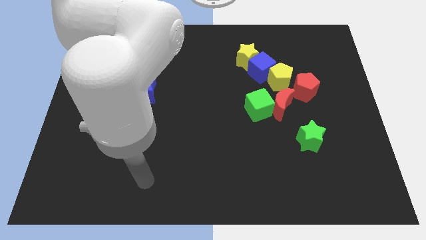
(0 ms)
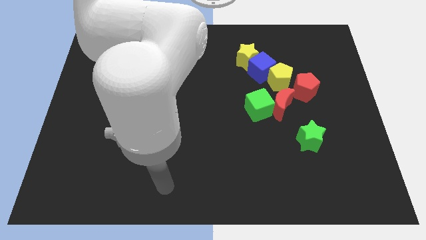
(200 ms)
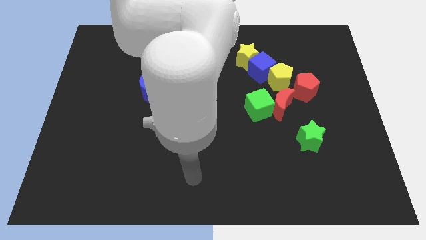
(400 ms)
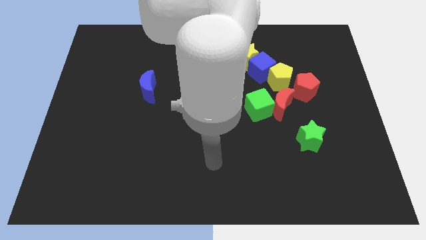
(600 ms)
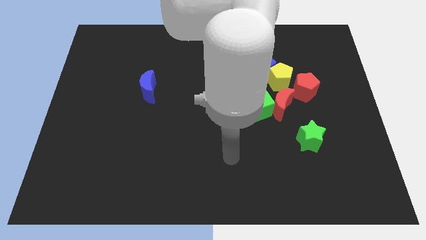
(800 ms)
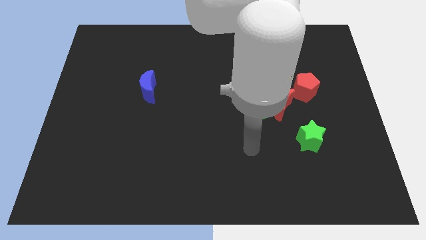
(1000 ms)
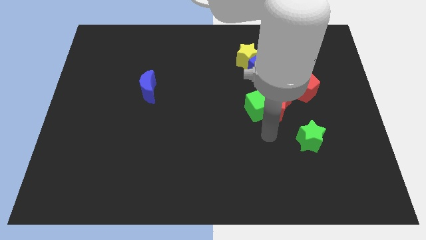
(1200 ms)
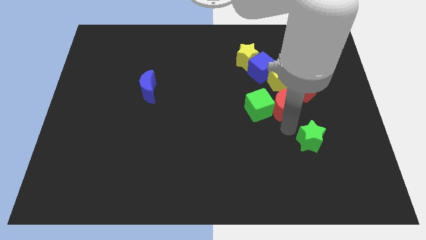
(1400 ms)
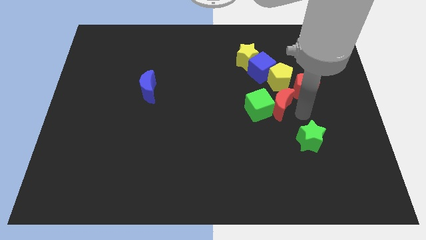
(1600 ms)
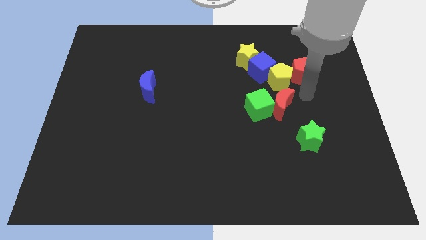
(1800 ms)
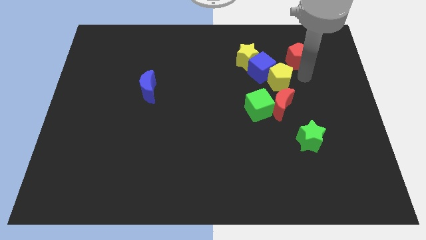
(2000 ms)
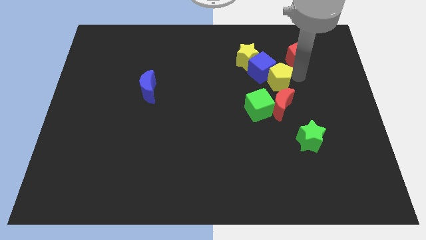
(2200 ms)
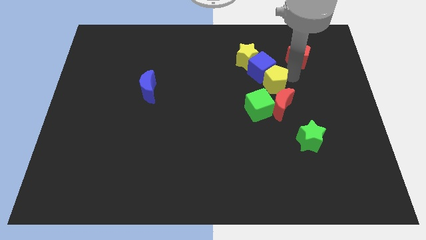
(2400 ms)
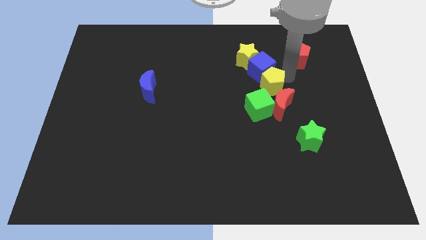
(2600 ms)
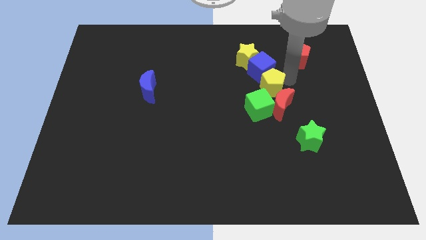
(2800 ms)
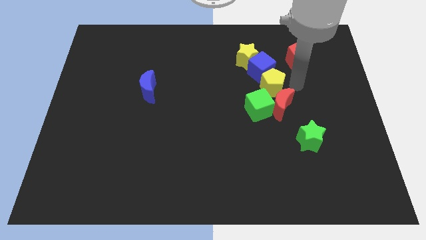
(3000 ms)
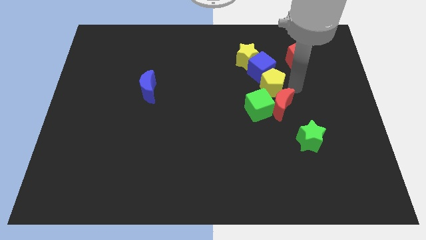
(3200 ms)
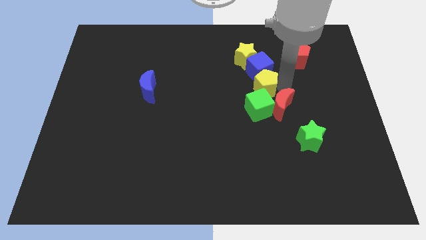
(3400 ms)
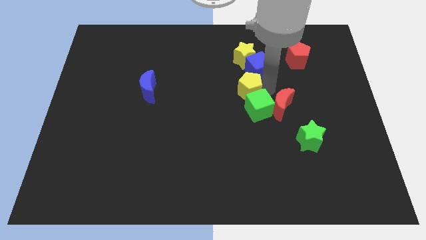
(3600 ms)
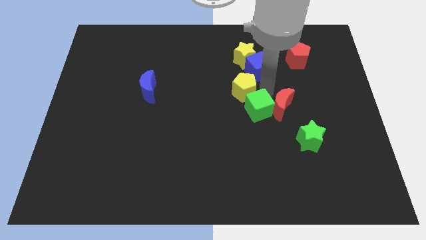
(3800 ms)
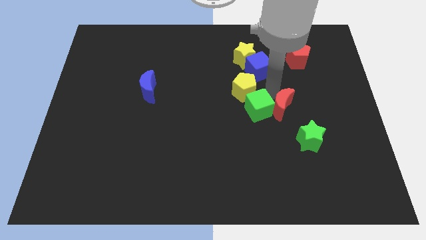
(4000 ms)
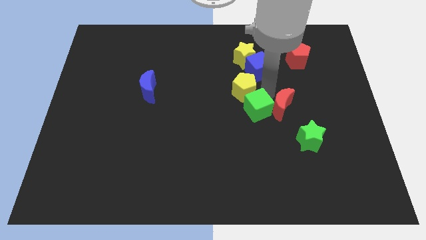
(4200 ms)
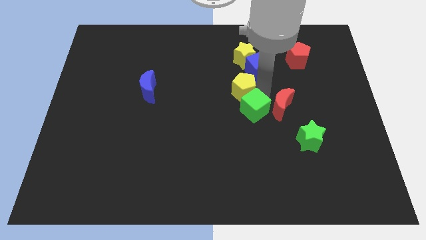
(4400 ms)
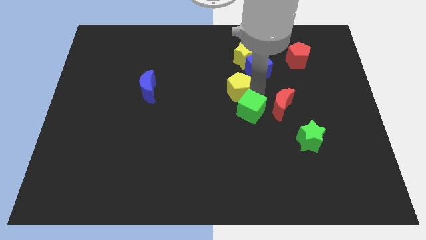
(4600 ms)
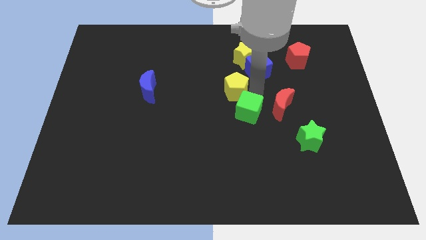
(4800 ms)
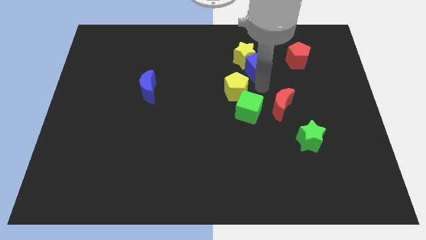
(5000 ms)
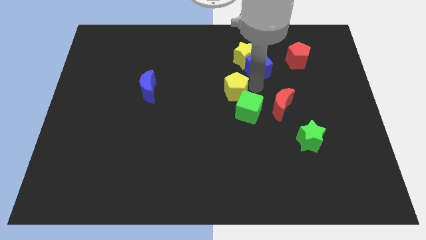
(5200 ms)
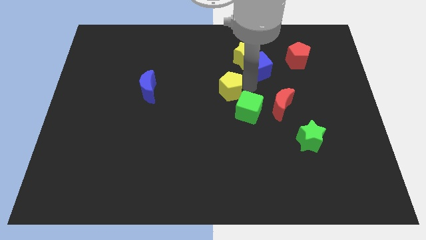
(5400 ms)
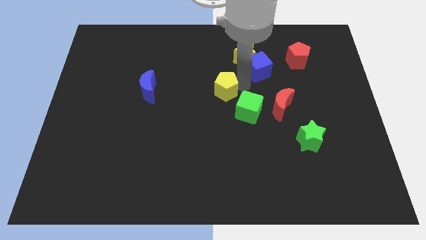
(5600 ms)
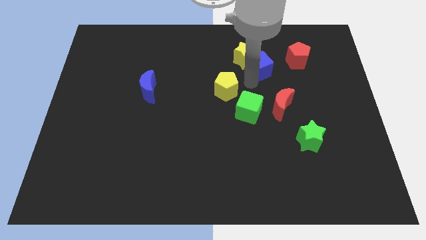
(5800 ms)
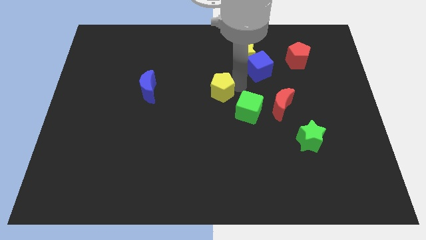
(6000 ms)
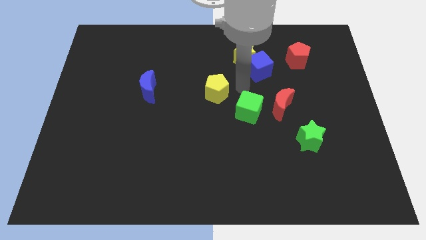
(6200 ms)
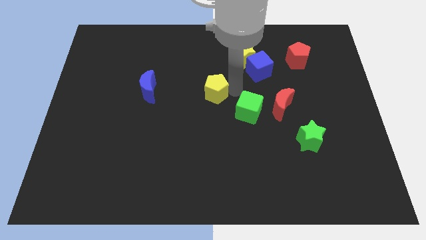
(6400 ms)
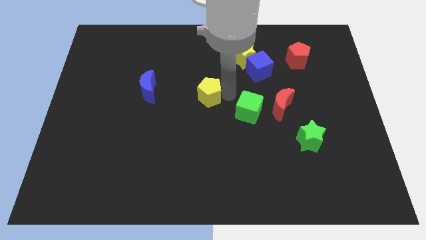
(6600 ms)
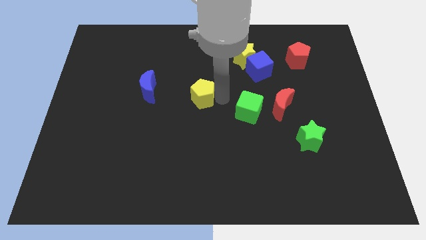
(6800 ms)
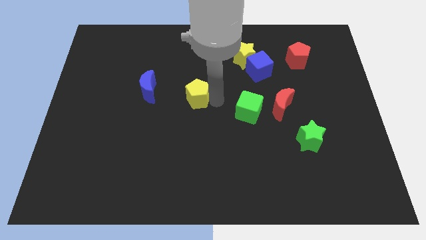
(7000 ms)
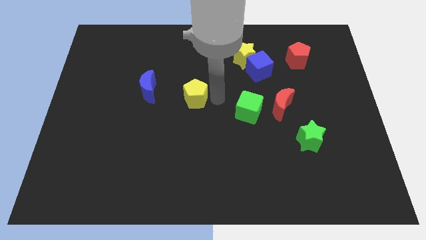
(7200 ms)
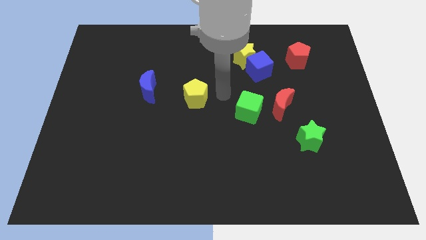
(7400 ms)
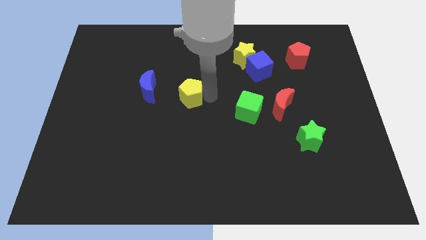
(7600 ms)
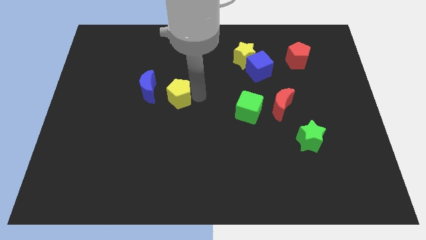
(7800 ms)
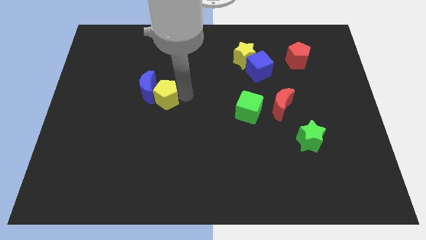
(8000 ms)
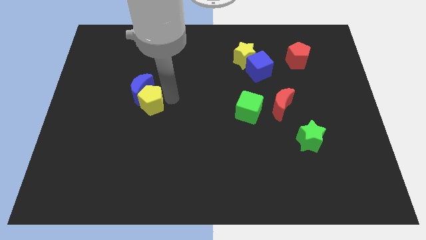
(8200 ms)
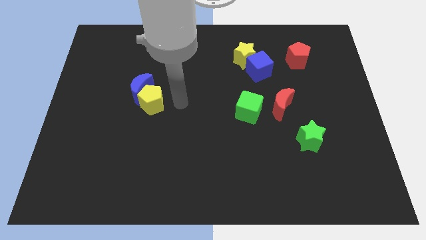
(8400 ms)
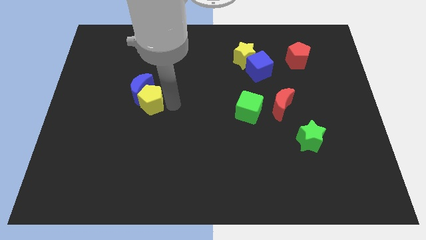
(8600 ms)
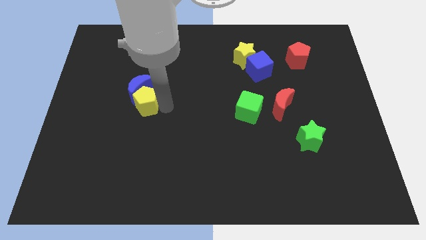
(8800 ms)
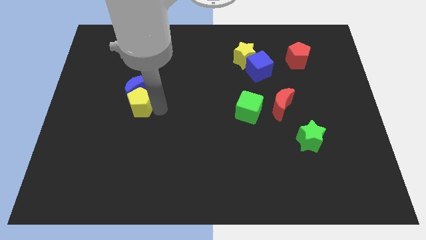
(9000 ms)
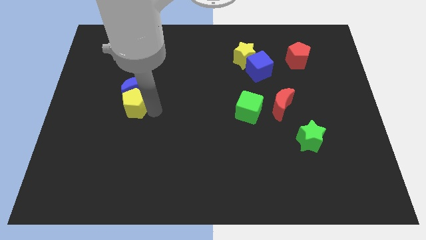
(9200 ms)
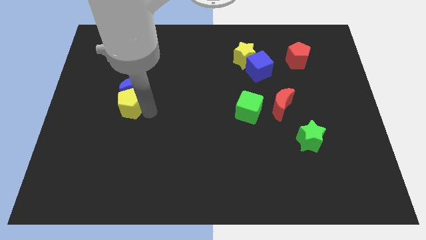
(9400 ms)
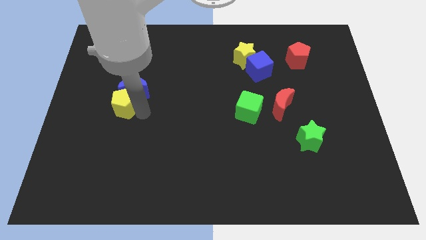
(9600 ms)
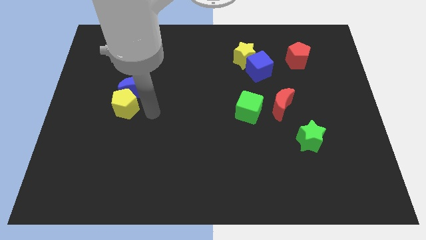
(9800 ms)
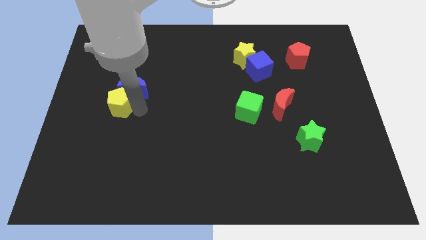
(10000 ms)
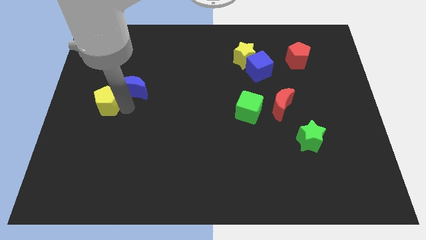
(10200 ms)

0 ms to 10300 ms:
push the yellow pentagon to the left side of the board

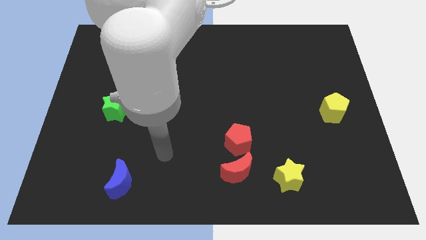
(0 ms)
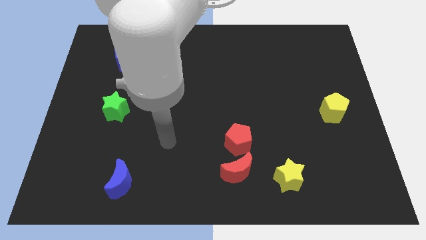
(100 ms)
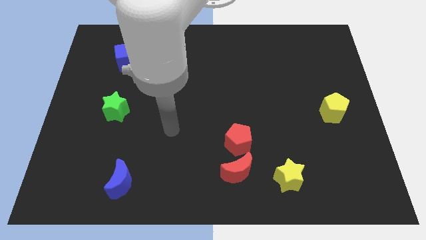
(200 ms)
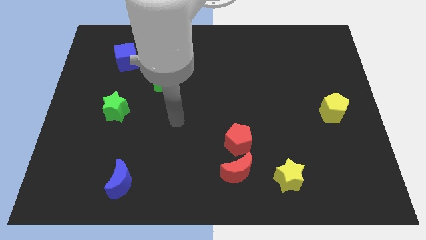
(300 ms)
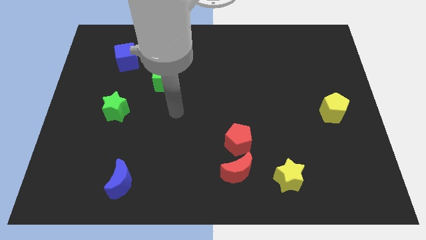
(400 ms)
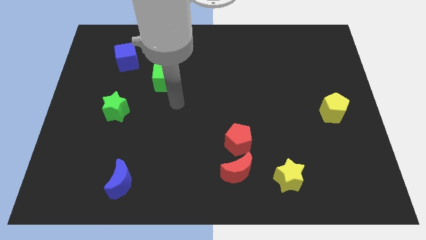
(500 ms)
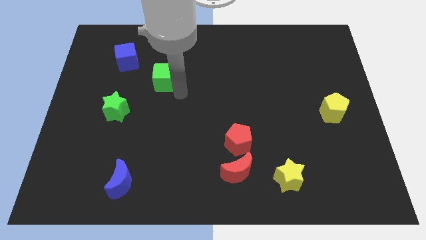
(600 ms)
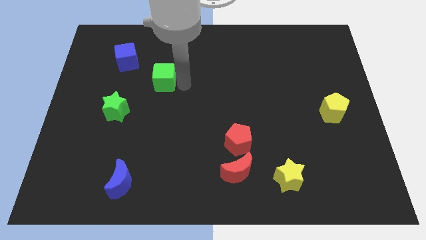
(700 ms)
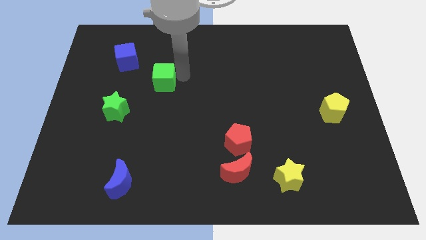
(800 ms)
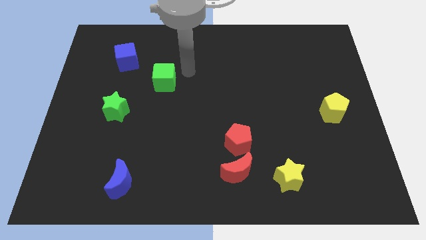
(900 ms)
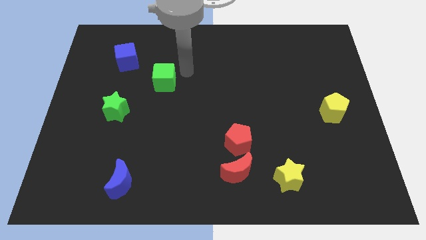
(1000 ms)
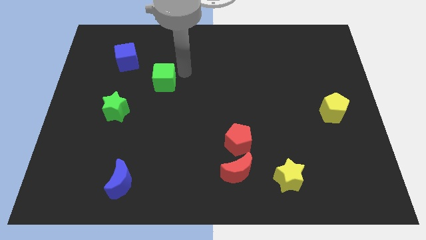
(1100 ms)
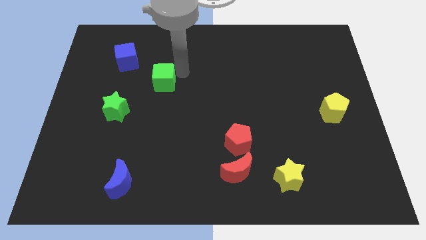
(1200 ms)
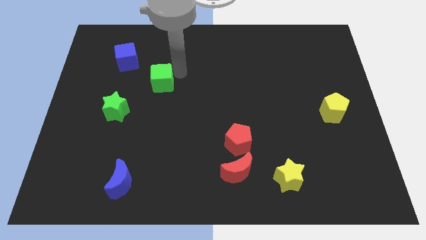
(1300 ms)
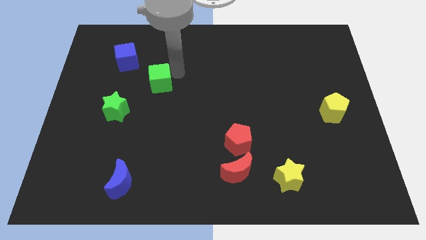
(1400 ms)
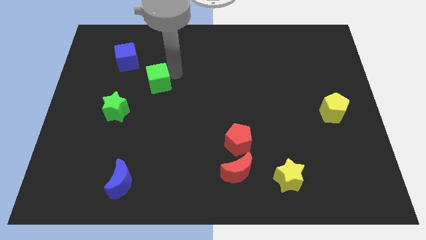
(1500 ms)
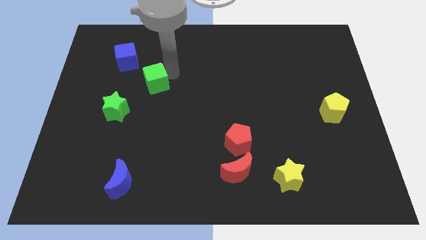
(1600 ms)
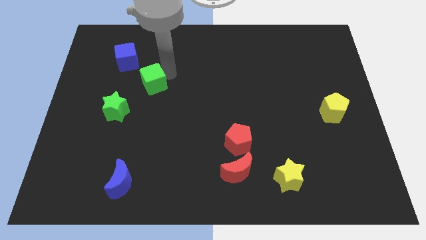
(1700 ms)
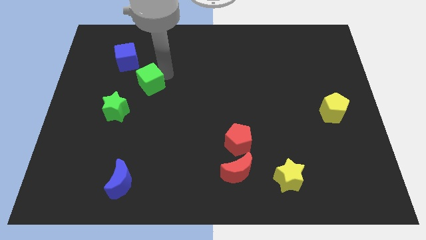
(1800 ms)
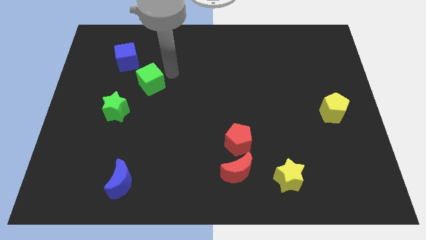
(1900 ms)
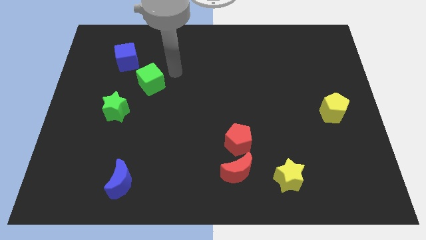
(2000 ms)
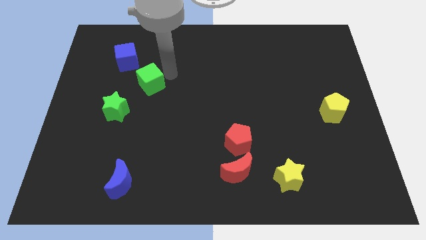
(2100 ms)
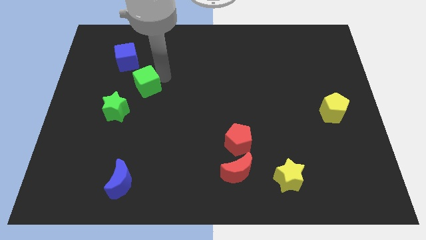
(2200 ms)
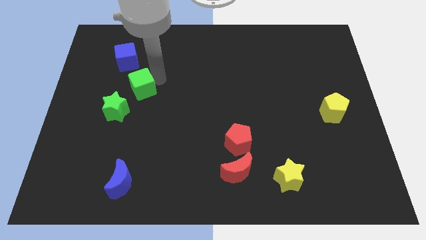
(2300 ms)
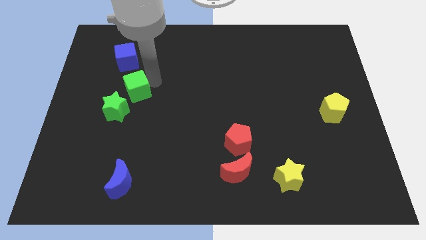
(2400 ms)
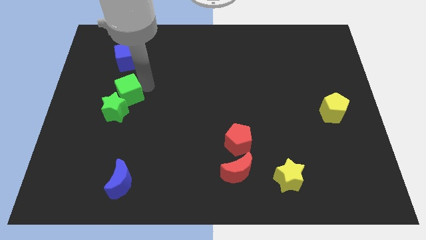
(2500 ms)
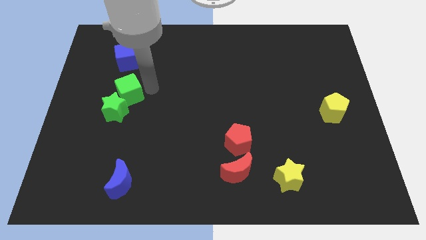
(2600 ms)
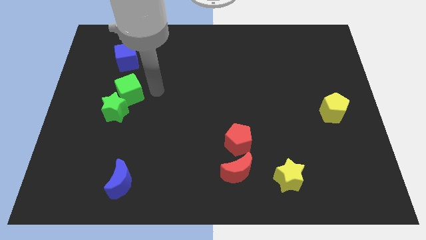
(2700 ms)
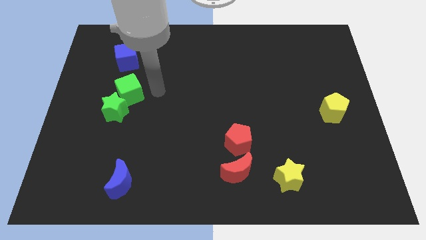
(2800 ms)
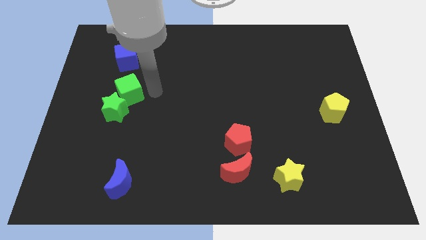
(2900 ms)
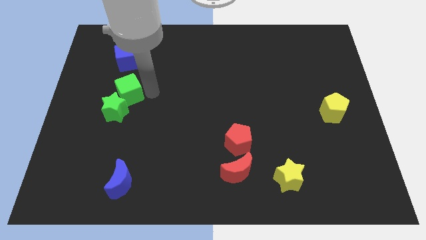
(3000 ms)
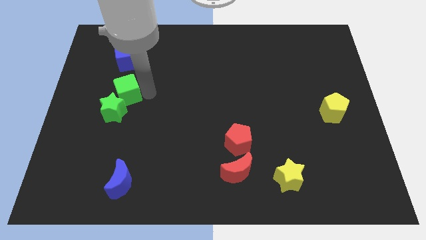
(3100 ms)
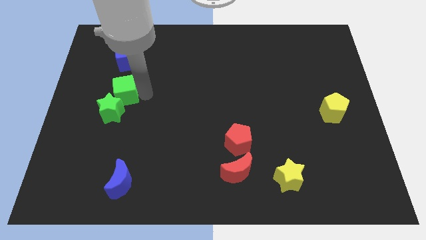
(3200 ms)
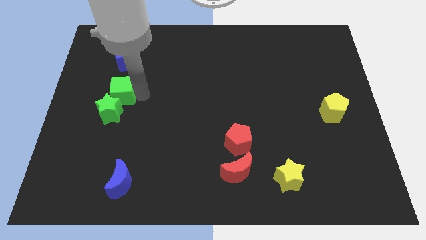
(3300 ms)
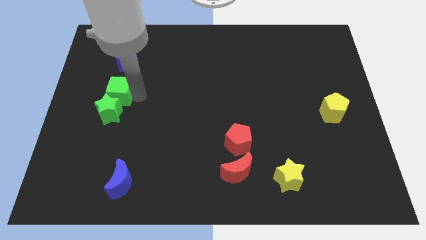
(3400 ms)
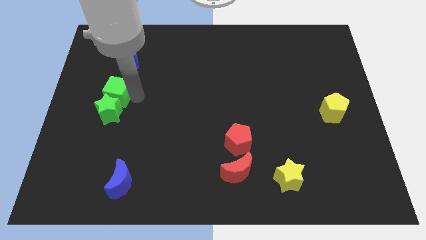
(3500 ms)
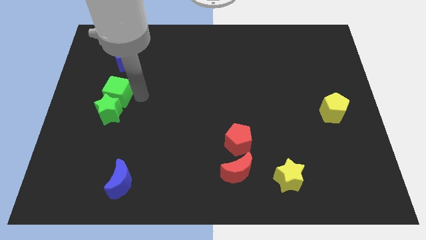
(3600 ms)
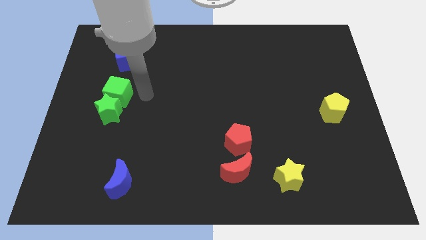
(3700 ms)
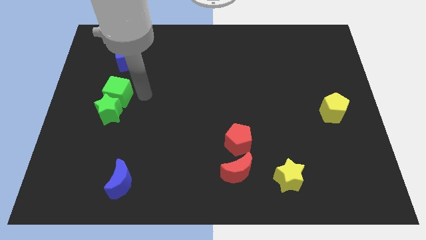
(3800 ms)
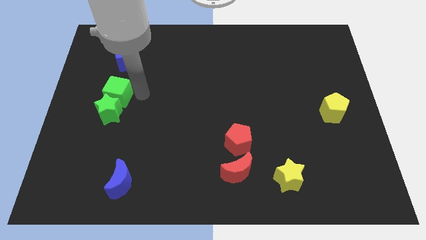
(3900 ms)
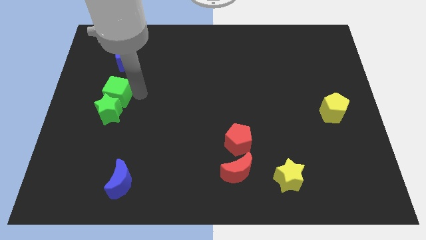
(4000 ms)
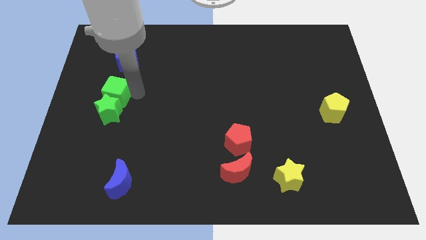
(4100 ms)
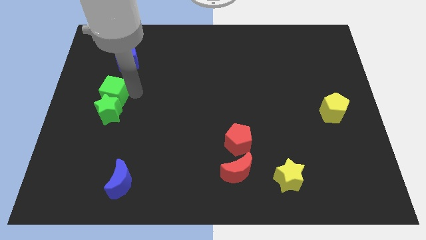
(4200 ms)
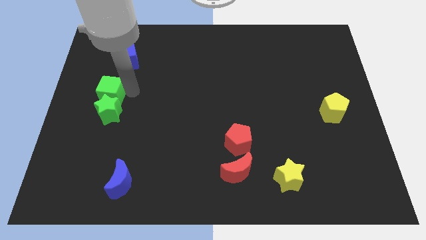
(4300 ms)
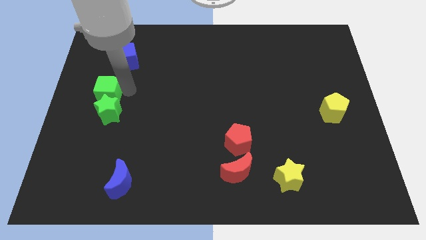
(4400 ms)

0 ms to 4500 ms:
slide the green cube to the center left
